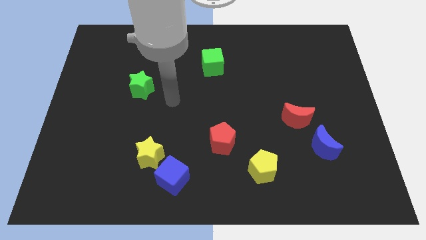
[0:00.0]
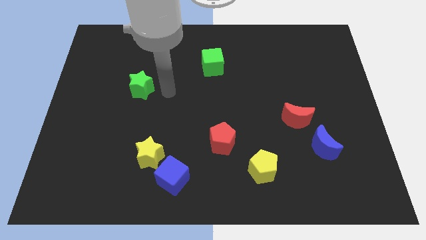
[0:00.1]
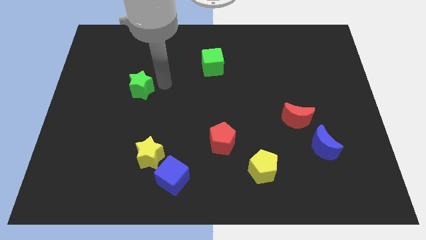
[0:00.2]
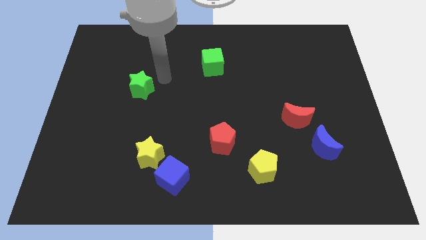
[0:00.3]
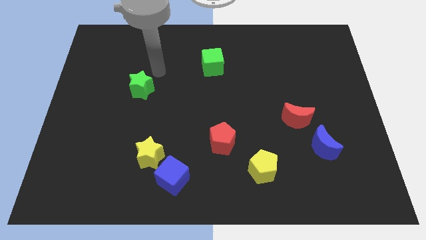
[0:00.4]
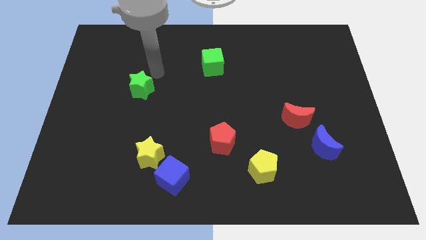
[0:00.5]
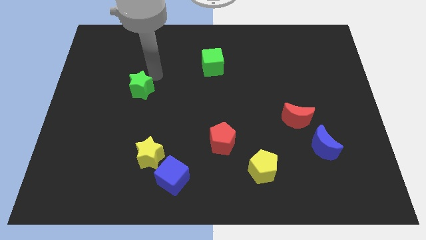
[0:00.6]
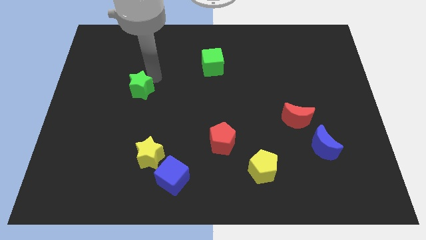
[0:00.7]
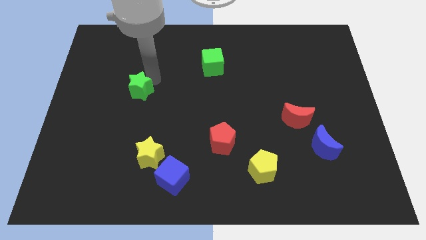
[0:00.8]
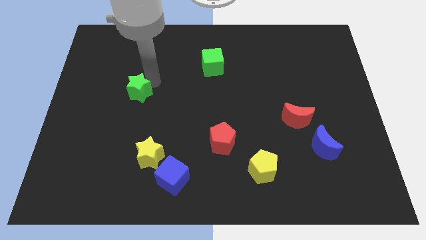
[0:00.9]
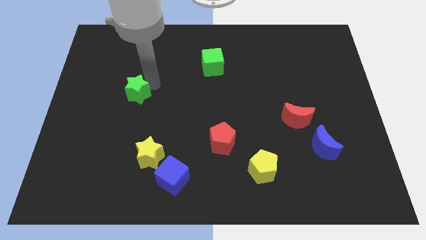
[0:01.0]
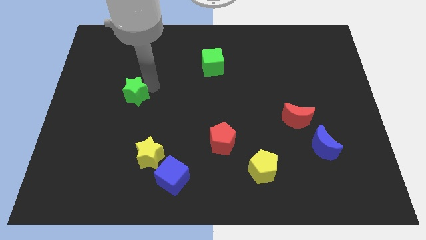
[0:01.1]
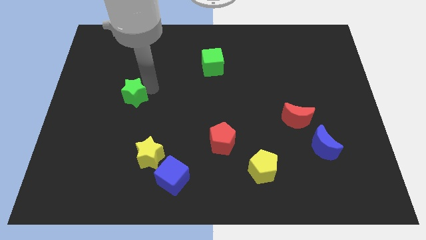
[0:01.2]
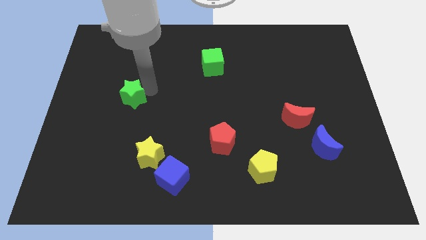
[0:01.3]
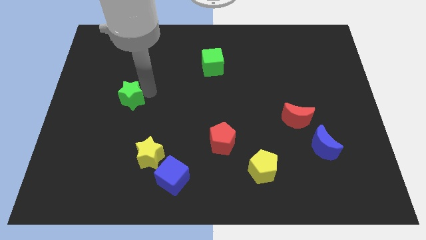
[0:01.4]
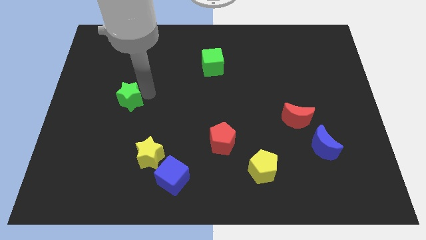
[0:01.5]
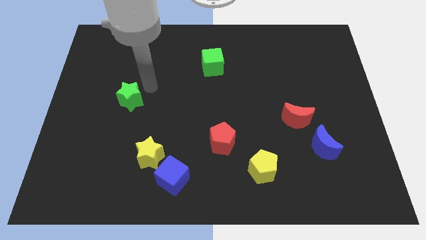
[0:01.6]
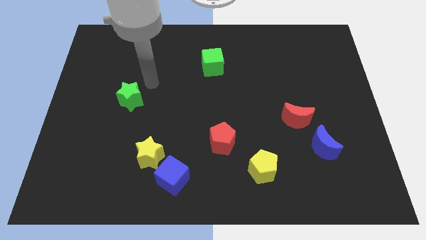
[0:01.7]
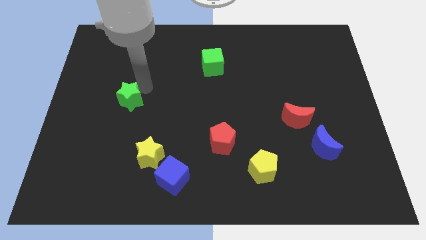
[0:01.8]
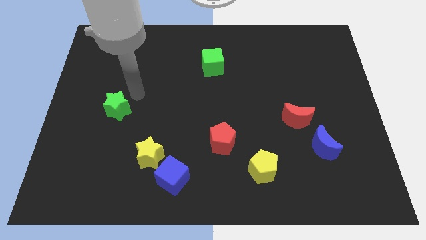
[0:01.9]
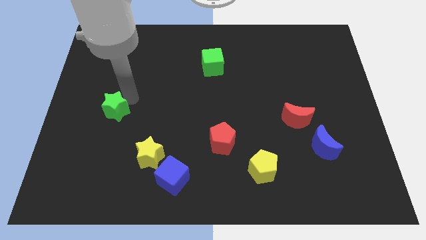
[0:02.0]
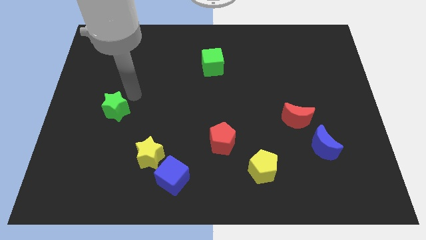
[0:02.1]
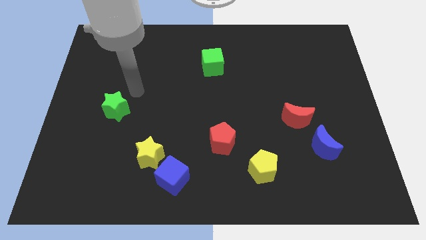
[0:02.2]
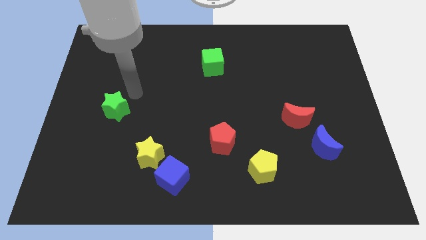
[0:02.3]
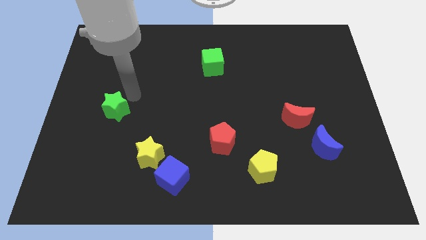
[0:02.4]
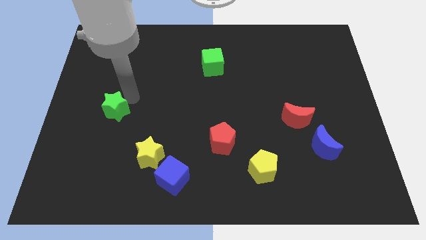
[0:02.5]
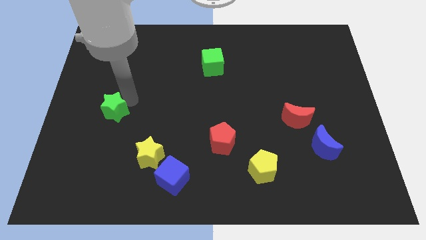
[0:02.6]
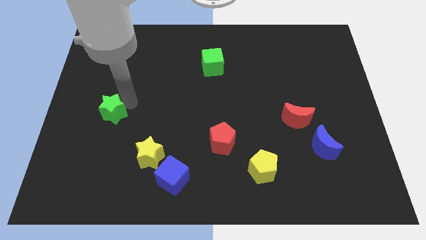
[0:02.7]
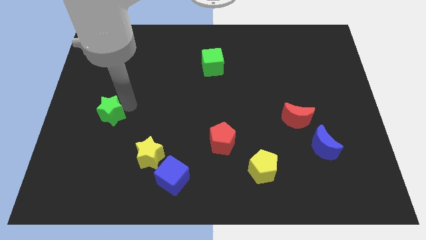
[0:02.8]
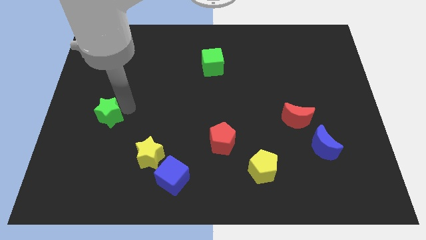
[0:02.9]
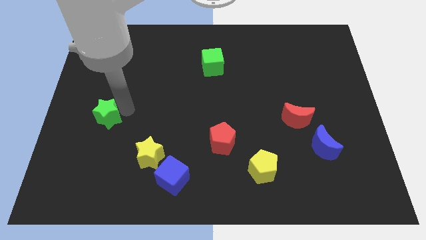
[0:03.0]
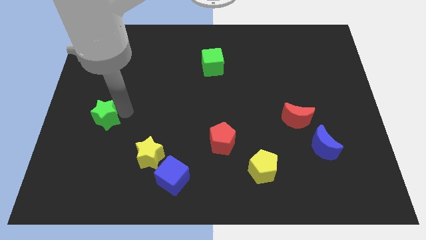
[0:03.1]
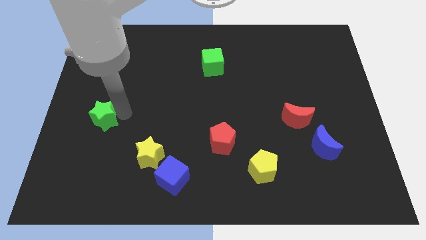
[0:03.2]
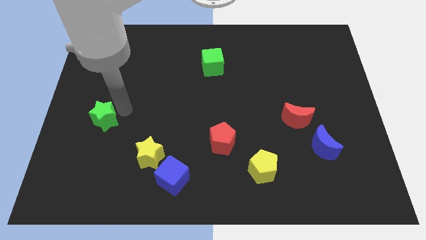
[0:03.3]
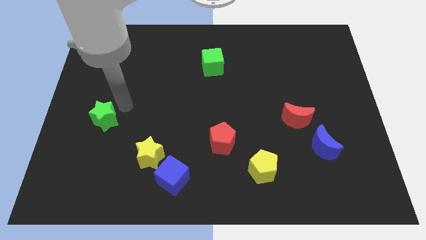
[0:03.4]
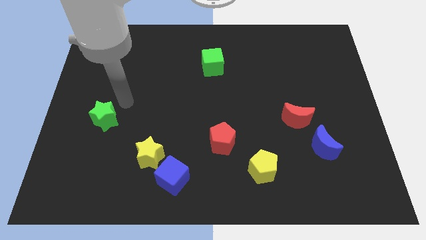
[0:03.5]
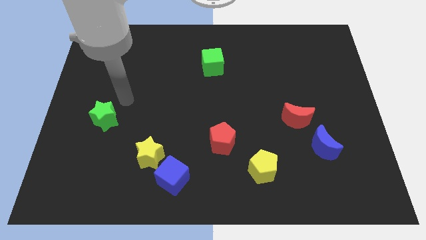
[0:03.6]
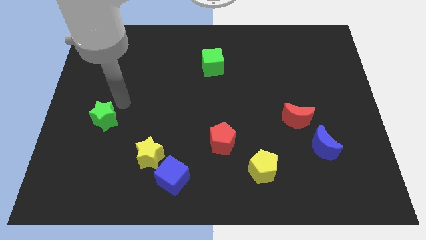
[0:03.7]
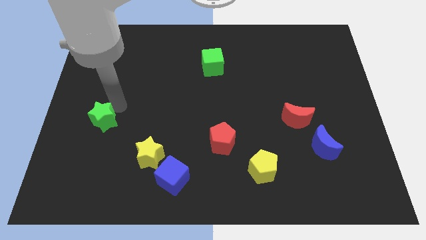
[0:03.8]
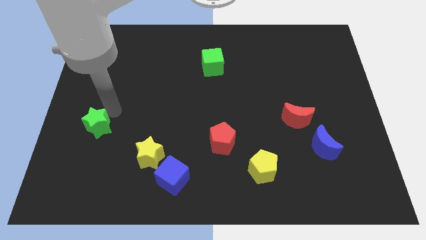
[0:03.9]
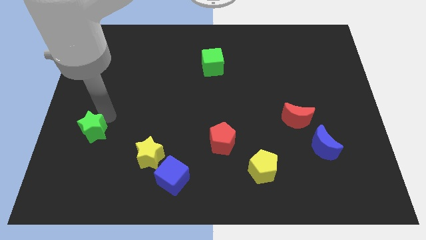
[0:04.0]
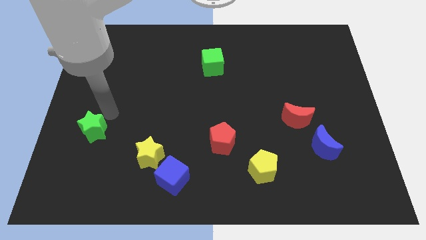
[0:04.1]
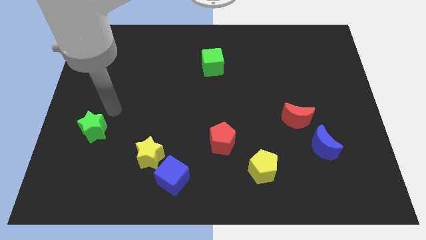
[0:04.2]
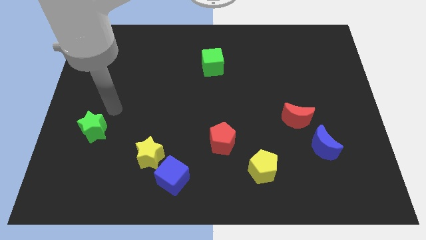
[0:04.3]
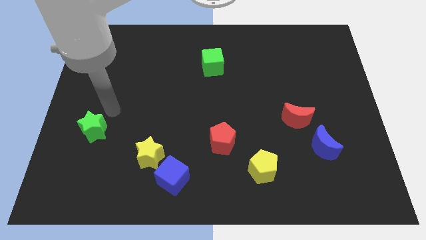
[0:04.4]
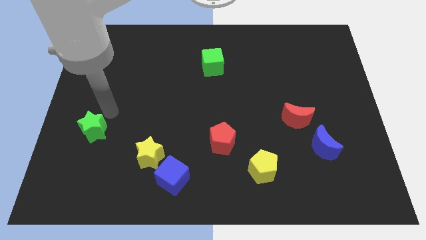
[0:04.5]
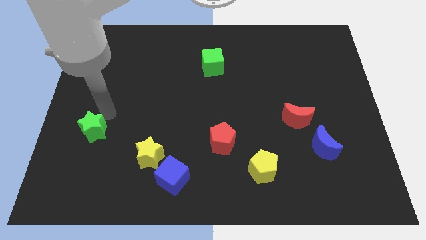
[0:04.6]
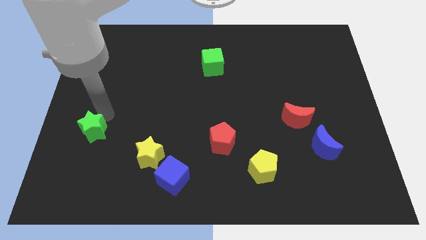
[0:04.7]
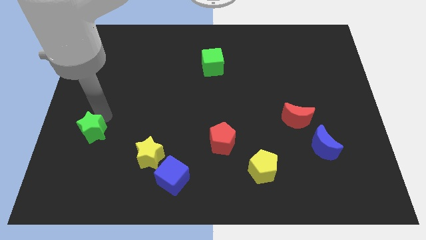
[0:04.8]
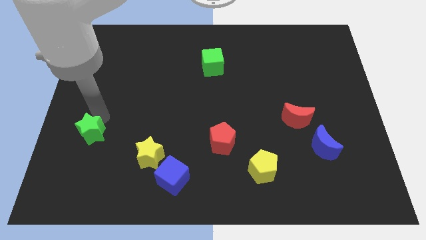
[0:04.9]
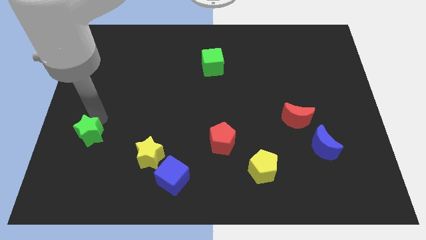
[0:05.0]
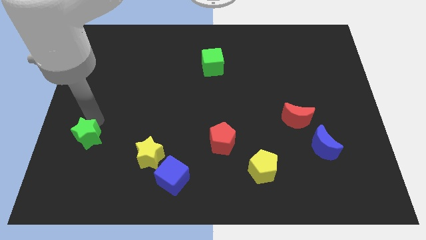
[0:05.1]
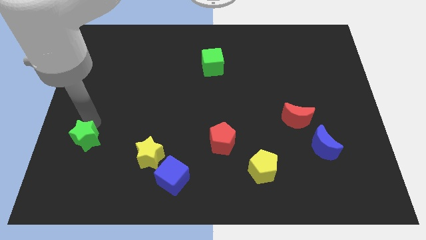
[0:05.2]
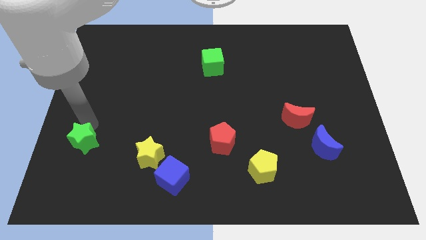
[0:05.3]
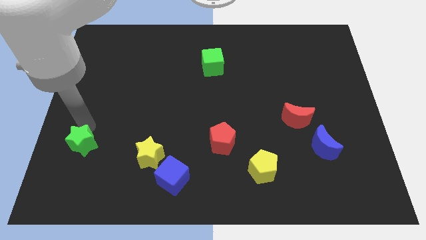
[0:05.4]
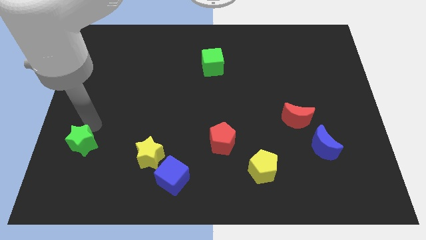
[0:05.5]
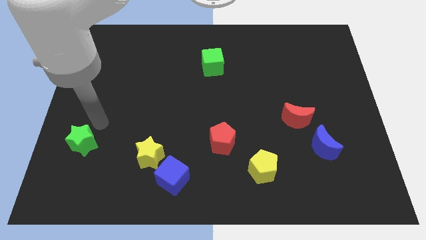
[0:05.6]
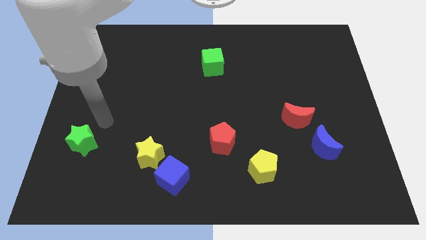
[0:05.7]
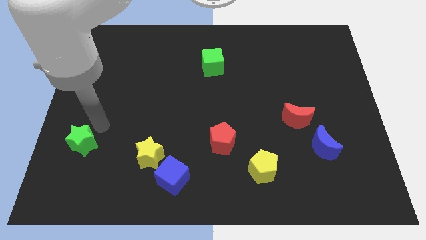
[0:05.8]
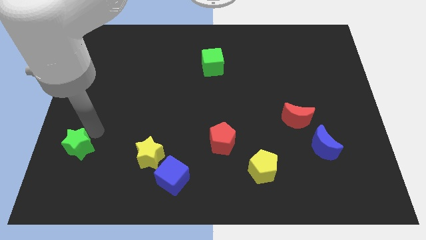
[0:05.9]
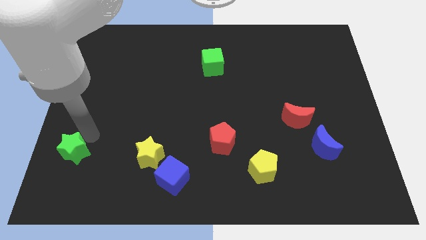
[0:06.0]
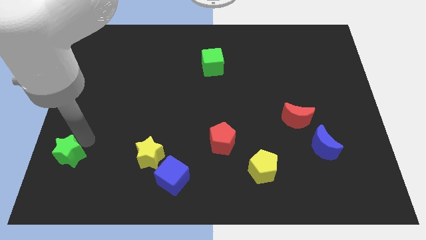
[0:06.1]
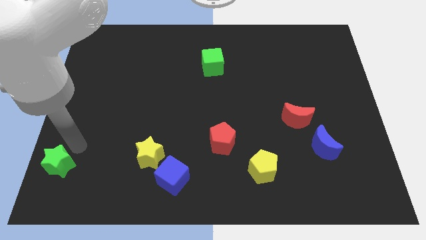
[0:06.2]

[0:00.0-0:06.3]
push the green star to the lower left corner
